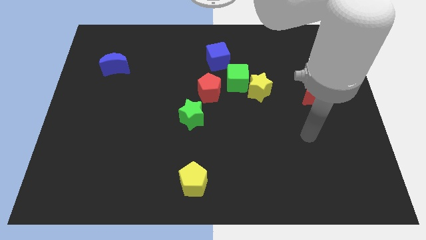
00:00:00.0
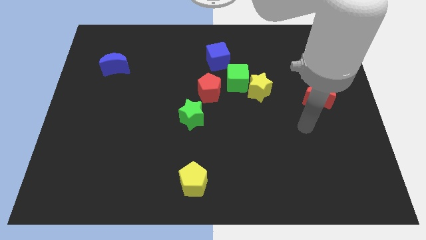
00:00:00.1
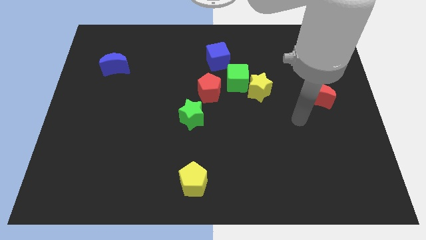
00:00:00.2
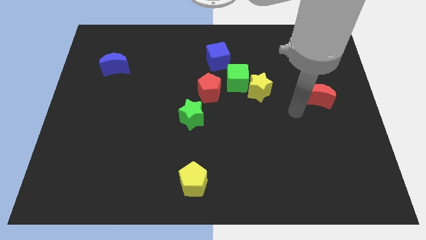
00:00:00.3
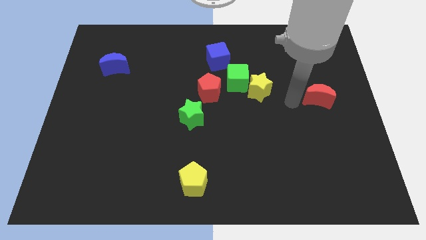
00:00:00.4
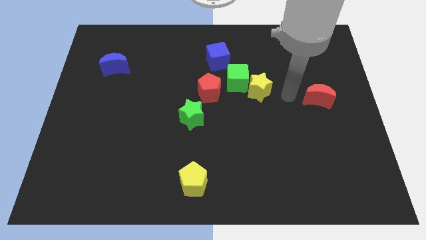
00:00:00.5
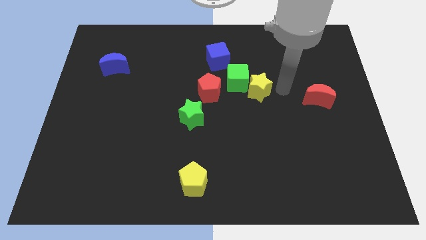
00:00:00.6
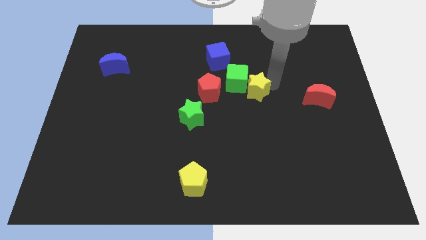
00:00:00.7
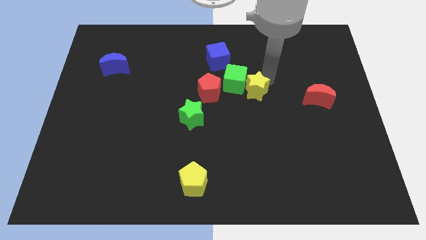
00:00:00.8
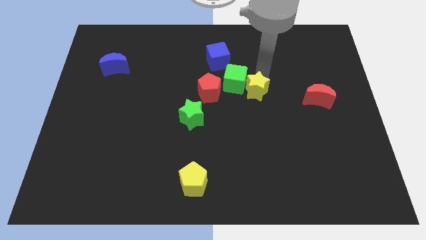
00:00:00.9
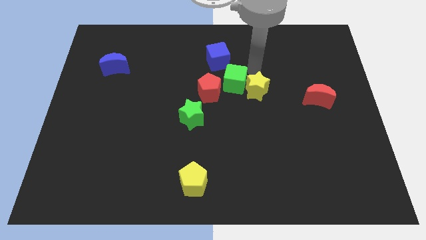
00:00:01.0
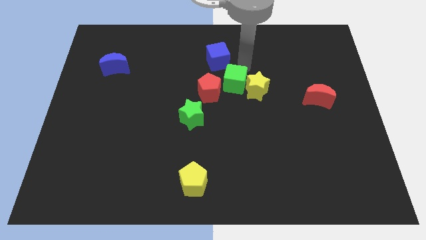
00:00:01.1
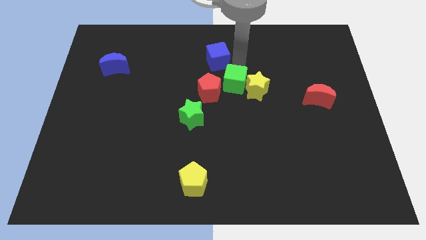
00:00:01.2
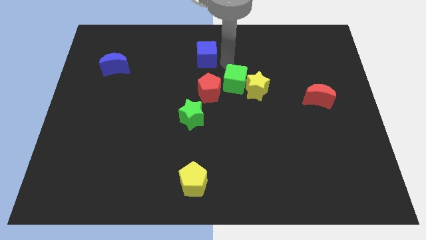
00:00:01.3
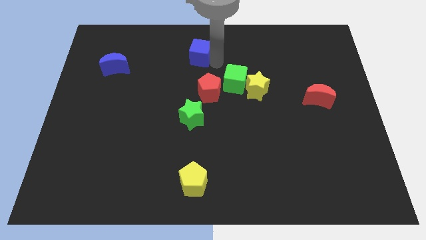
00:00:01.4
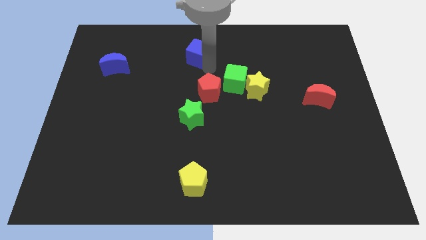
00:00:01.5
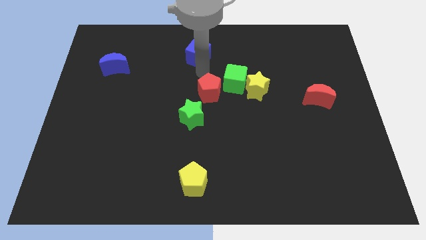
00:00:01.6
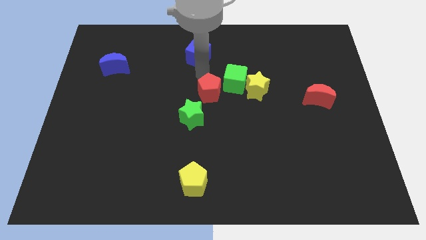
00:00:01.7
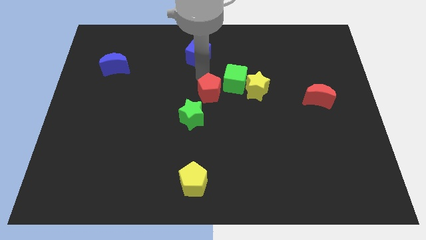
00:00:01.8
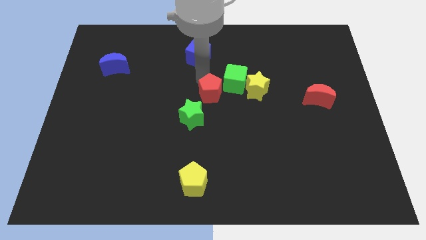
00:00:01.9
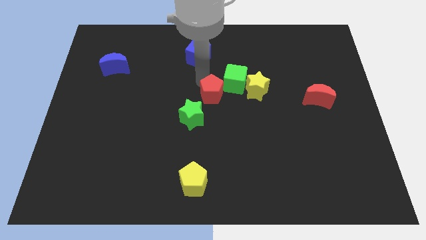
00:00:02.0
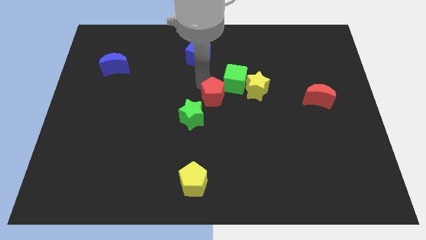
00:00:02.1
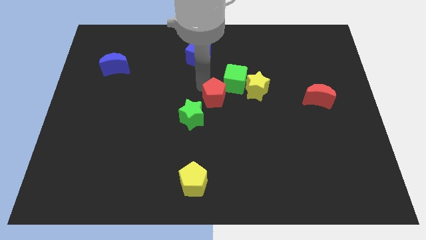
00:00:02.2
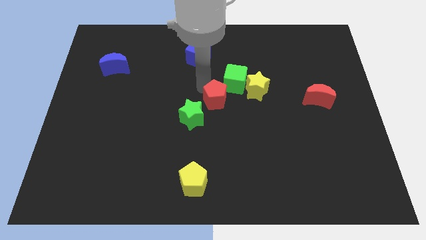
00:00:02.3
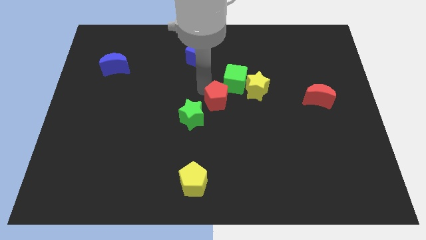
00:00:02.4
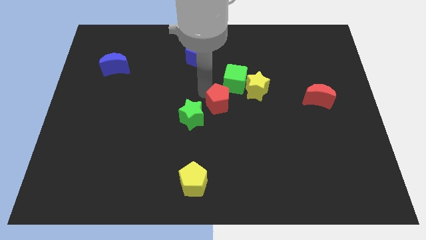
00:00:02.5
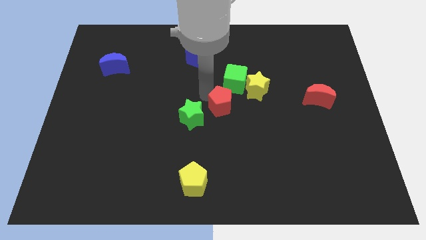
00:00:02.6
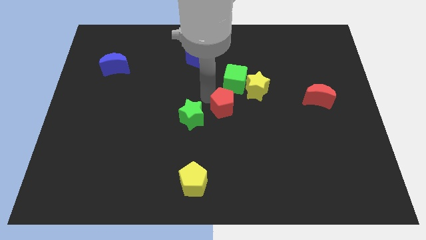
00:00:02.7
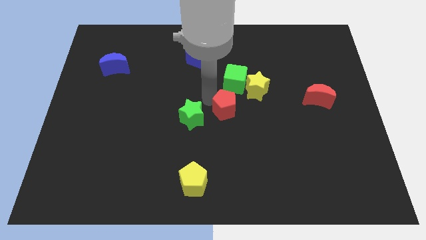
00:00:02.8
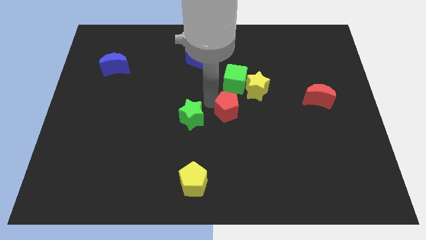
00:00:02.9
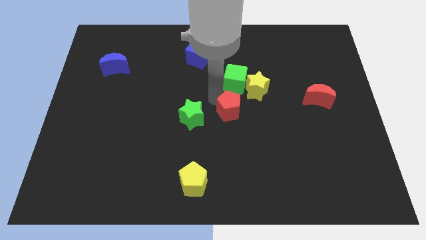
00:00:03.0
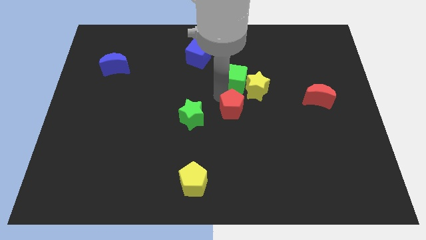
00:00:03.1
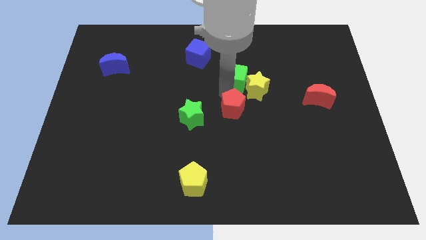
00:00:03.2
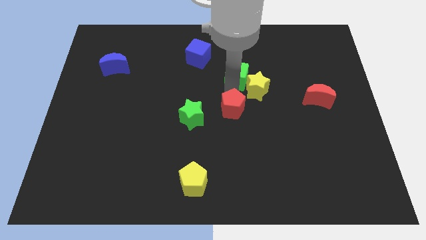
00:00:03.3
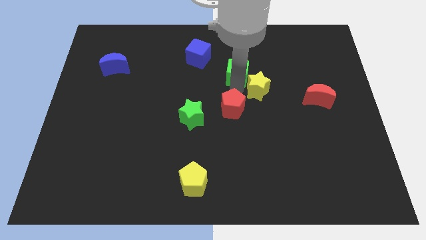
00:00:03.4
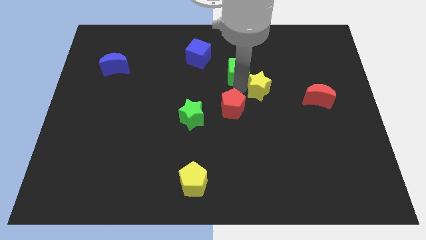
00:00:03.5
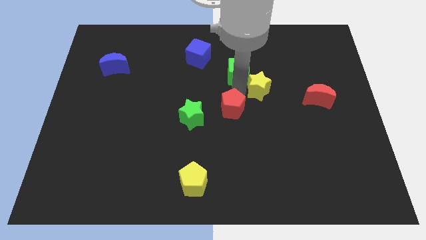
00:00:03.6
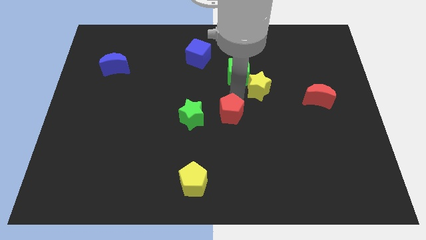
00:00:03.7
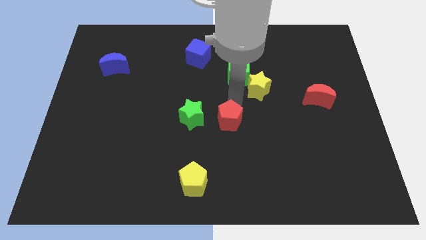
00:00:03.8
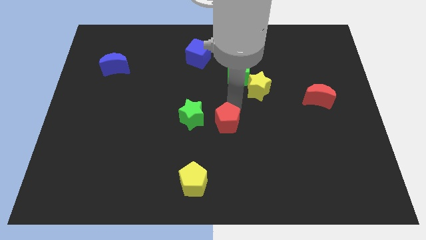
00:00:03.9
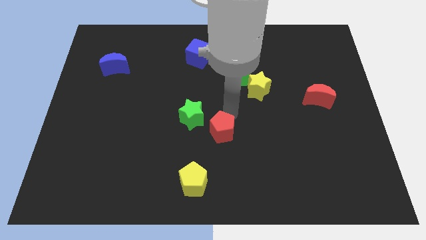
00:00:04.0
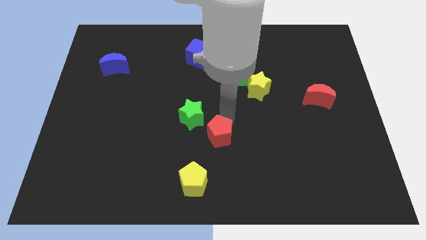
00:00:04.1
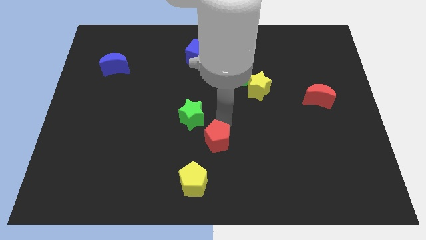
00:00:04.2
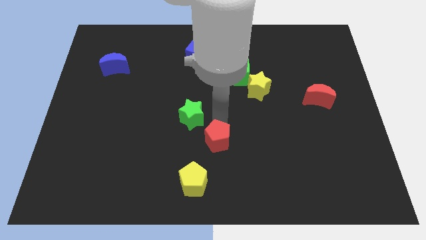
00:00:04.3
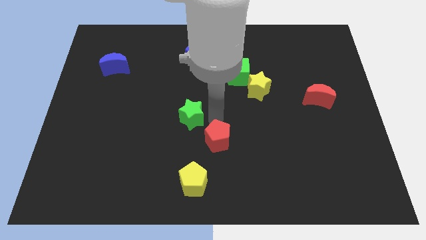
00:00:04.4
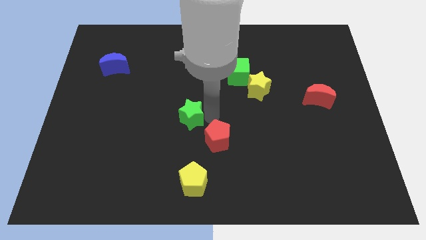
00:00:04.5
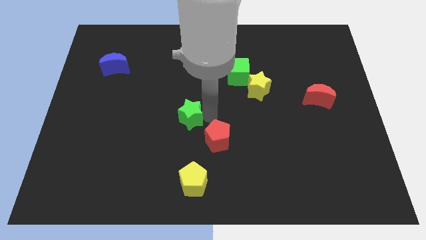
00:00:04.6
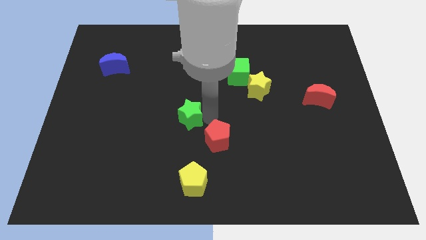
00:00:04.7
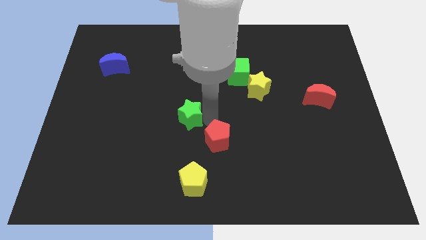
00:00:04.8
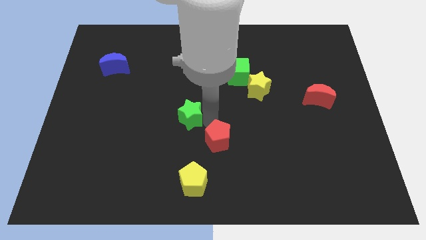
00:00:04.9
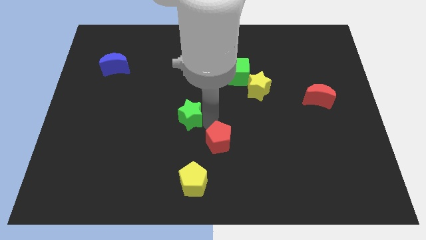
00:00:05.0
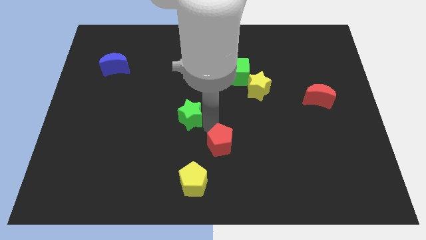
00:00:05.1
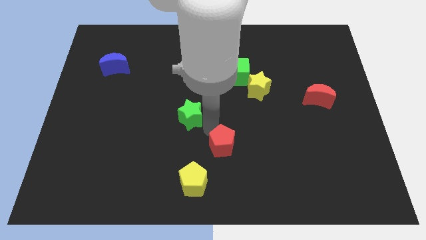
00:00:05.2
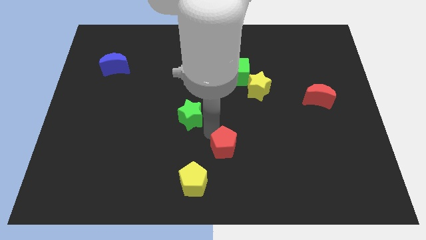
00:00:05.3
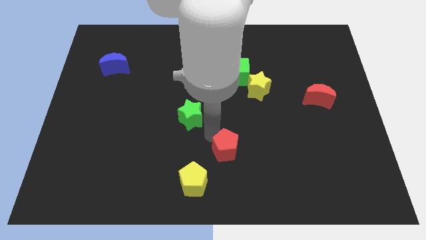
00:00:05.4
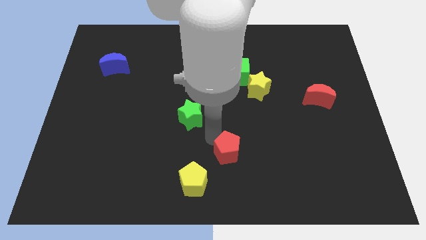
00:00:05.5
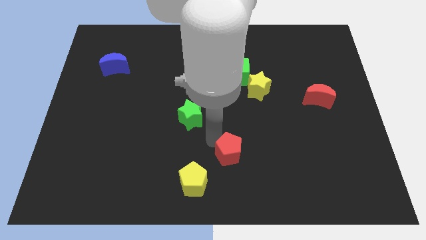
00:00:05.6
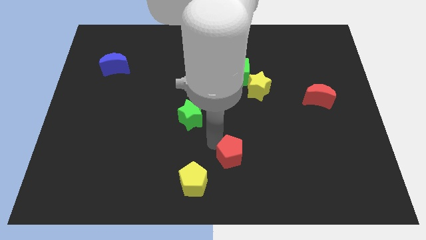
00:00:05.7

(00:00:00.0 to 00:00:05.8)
slide the red pentagon to the bottom
